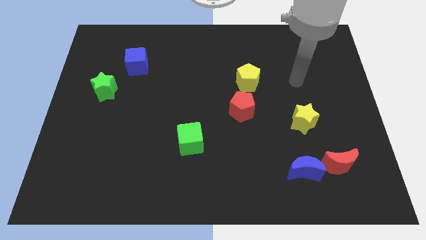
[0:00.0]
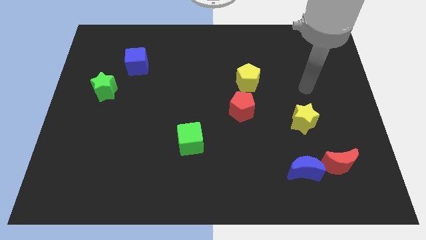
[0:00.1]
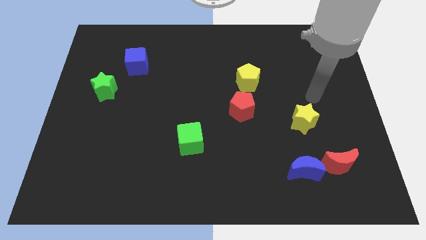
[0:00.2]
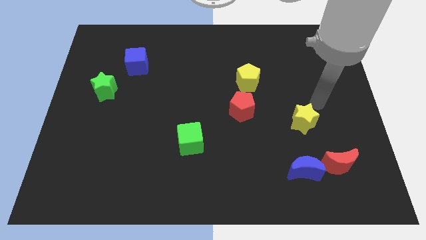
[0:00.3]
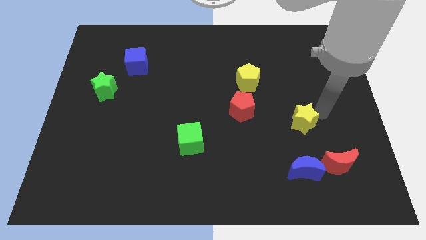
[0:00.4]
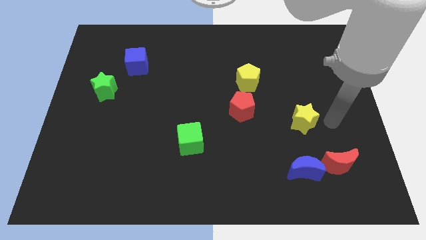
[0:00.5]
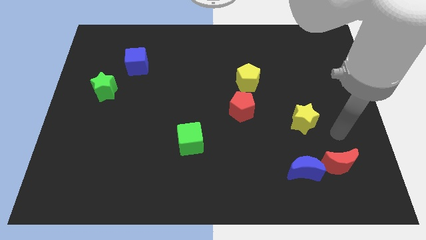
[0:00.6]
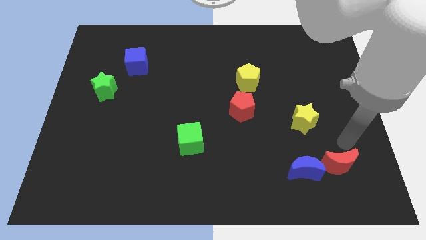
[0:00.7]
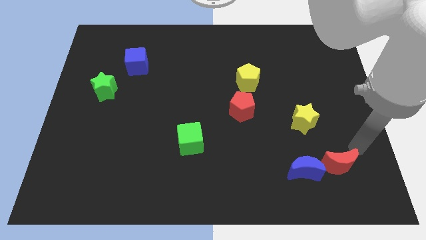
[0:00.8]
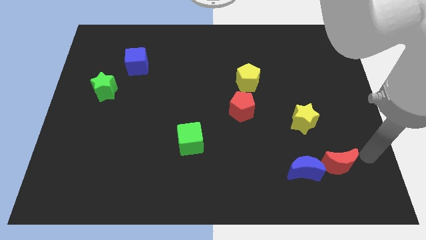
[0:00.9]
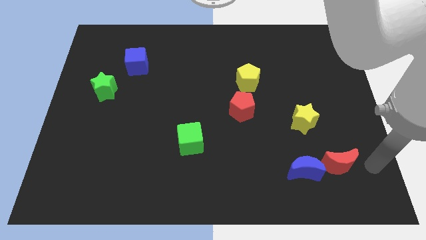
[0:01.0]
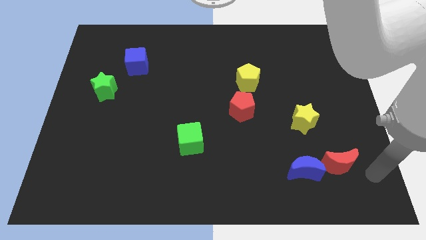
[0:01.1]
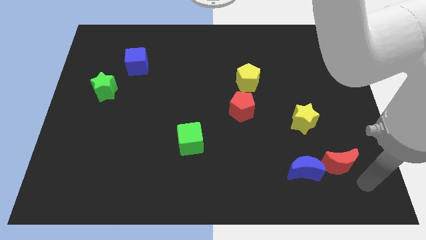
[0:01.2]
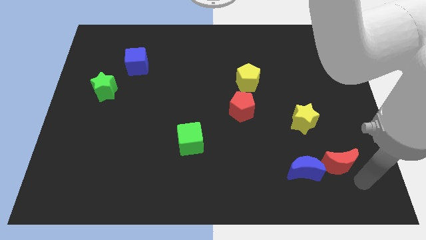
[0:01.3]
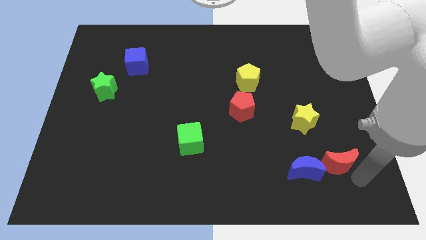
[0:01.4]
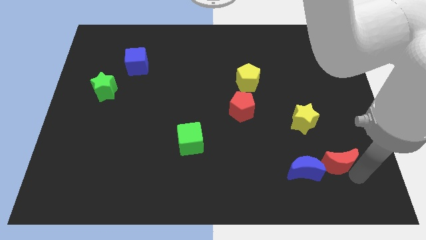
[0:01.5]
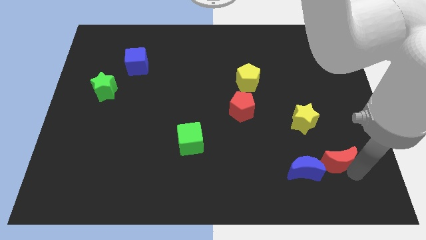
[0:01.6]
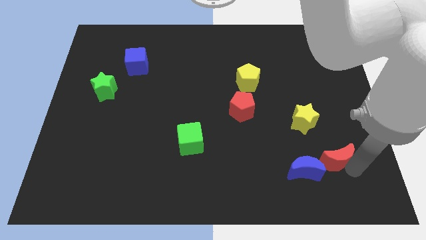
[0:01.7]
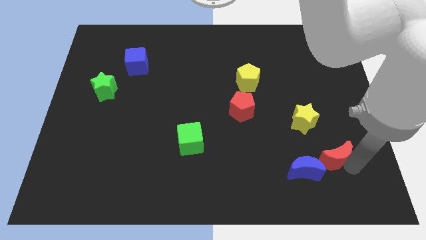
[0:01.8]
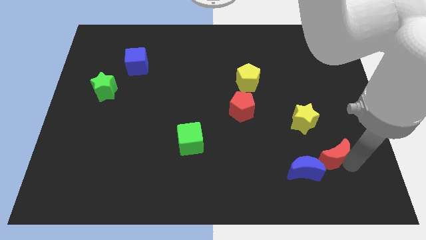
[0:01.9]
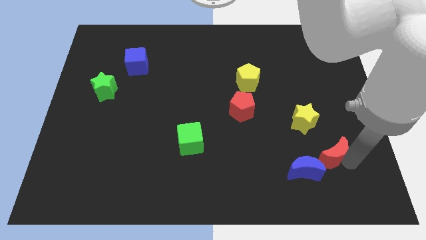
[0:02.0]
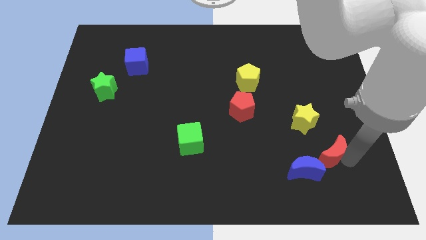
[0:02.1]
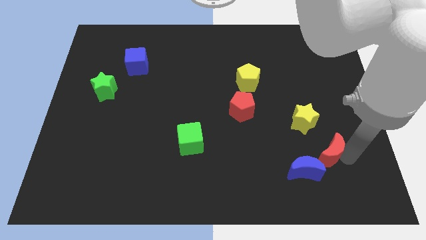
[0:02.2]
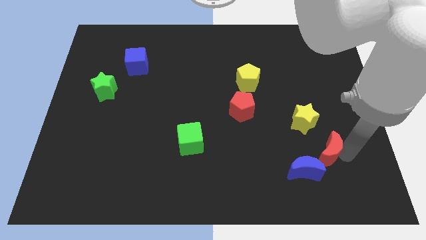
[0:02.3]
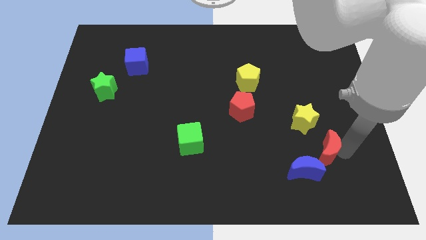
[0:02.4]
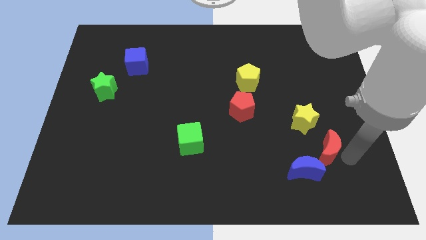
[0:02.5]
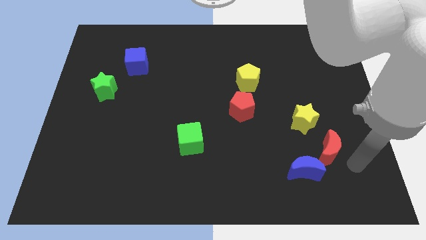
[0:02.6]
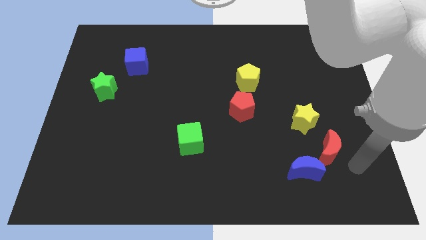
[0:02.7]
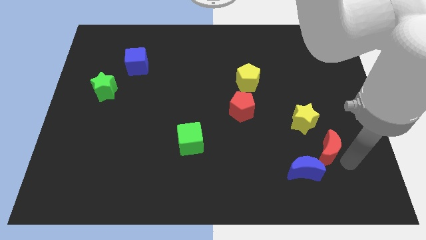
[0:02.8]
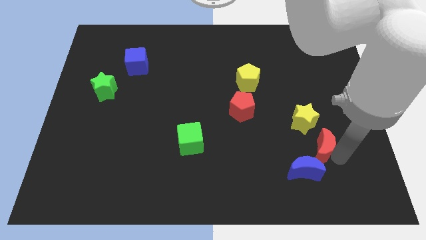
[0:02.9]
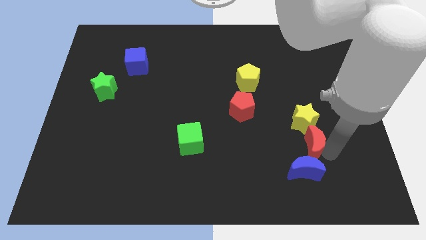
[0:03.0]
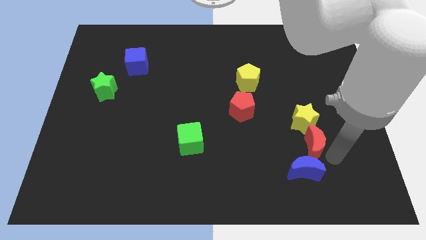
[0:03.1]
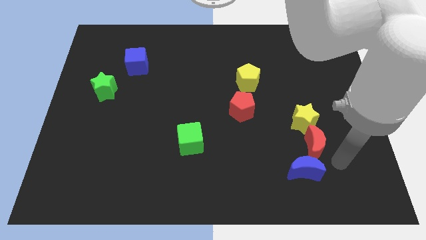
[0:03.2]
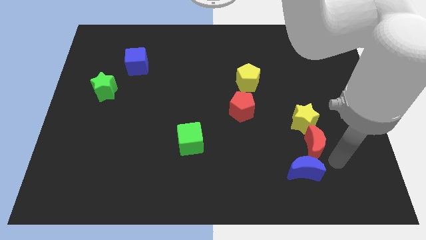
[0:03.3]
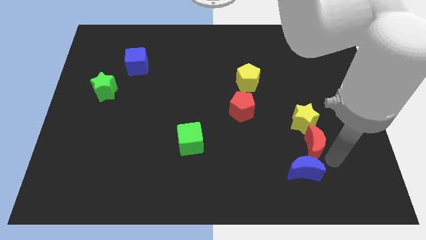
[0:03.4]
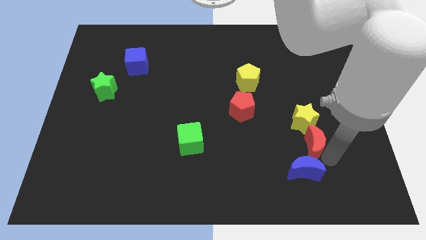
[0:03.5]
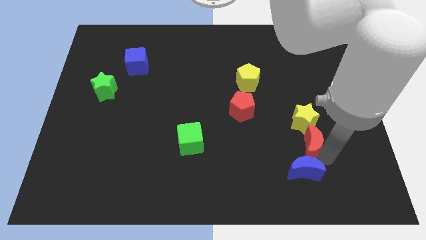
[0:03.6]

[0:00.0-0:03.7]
move the red moon diagonally up and left a little

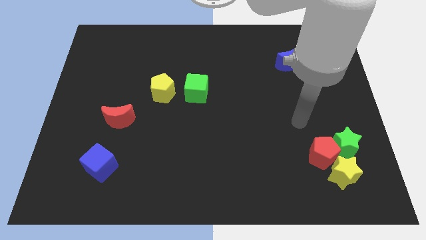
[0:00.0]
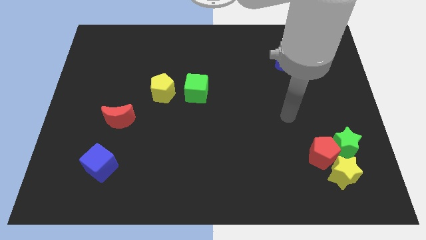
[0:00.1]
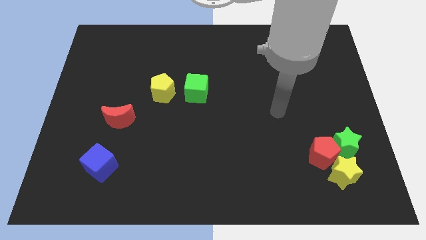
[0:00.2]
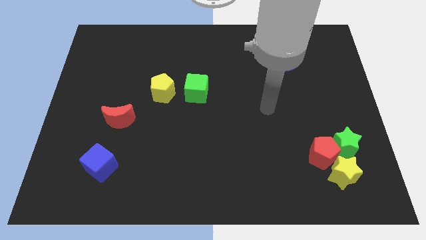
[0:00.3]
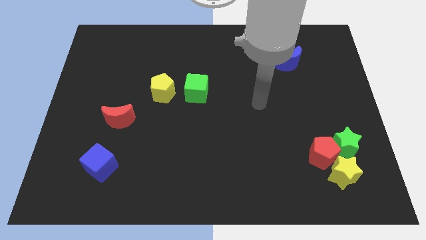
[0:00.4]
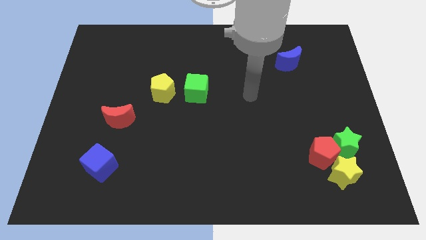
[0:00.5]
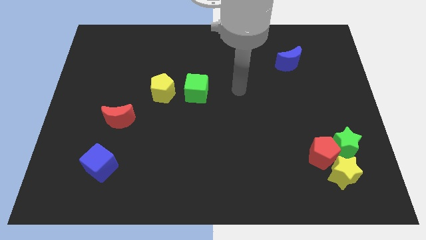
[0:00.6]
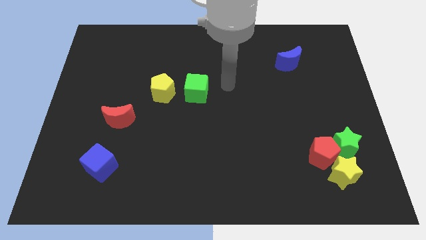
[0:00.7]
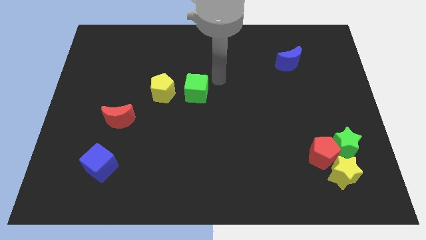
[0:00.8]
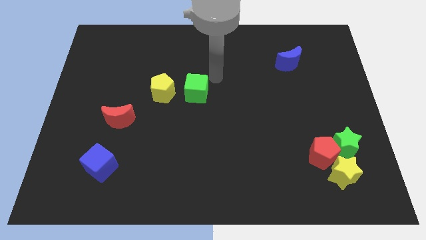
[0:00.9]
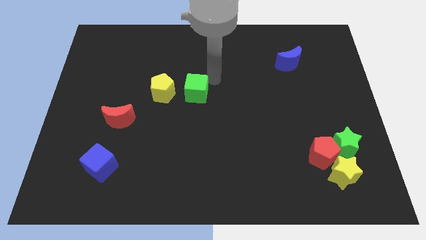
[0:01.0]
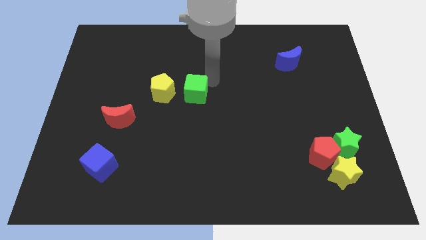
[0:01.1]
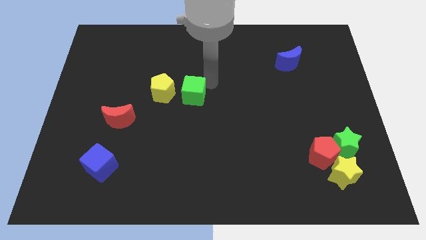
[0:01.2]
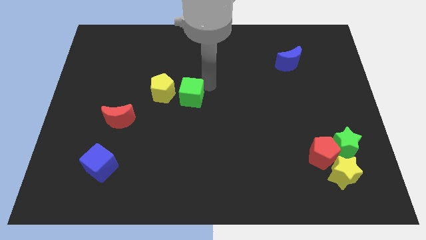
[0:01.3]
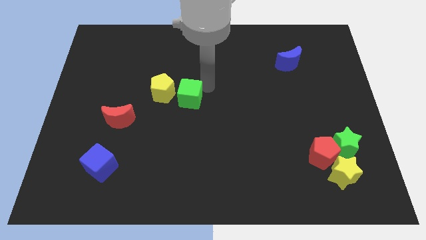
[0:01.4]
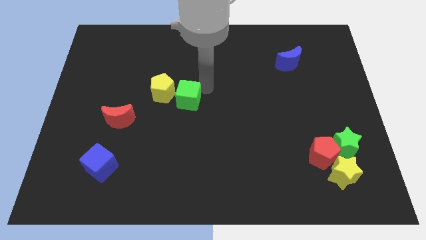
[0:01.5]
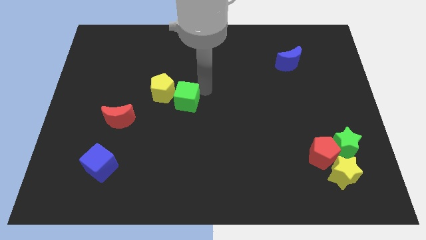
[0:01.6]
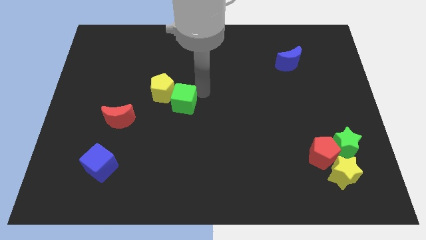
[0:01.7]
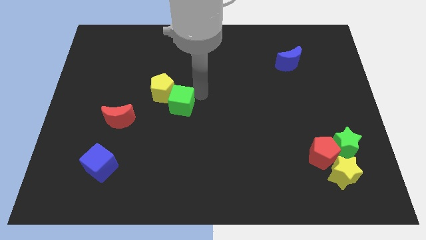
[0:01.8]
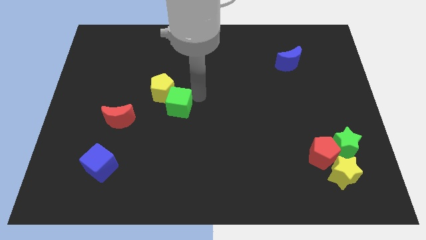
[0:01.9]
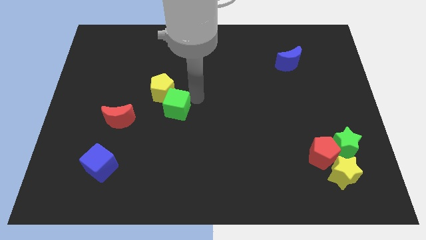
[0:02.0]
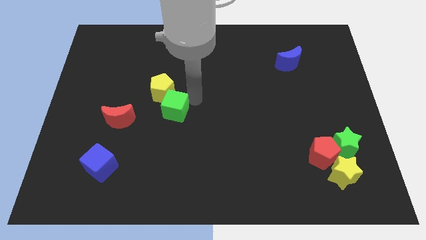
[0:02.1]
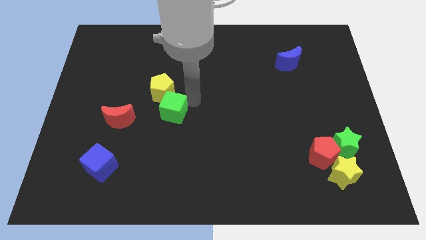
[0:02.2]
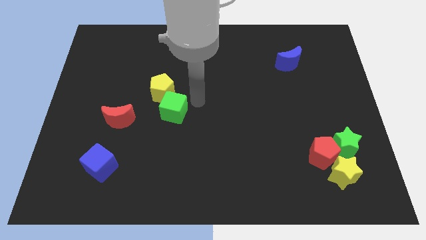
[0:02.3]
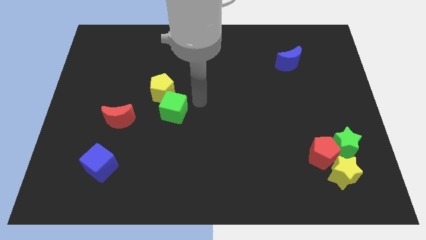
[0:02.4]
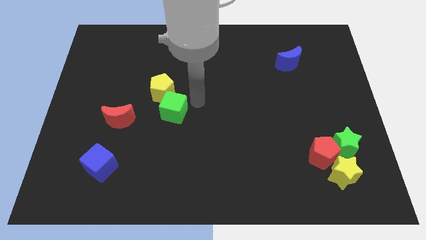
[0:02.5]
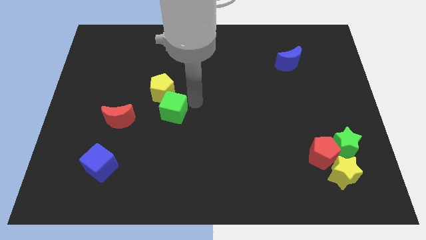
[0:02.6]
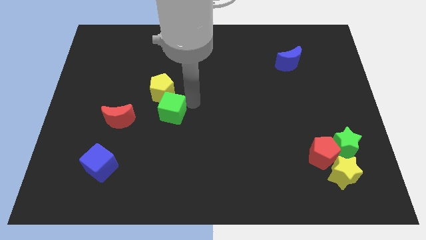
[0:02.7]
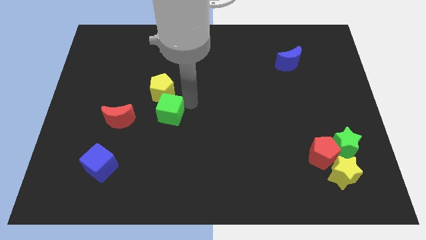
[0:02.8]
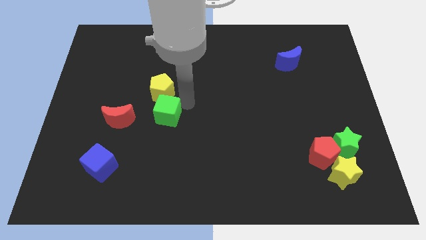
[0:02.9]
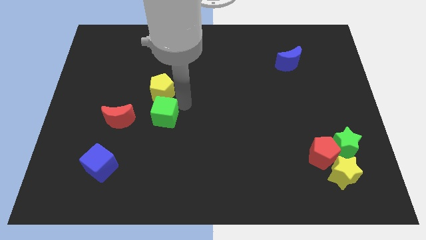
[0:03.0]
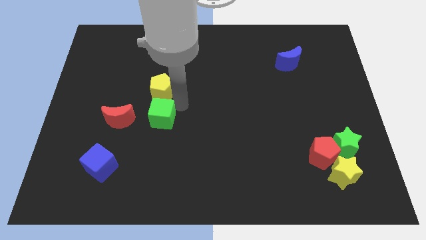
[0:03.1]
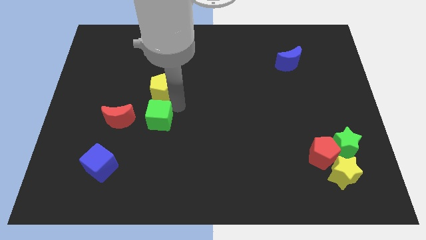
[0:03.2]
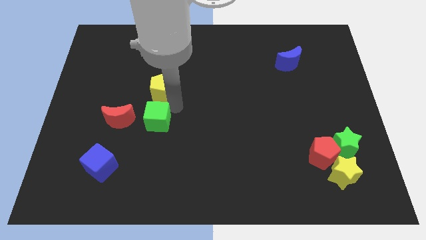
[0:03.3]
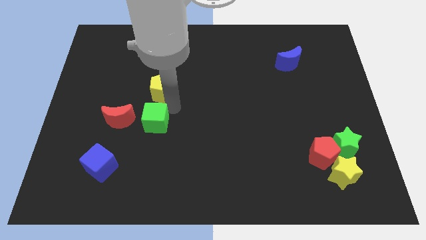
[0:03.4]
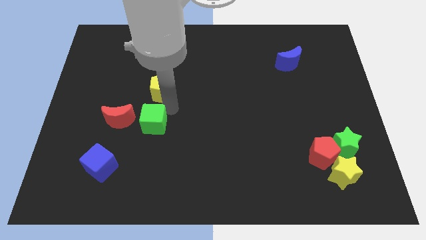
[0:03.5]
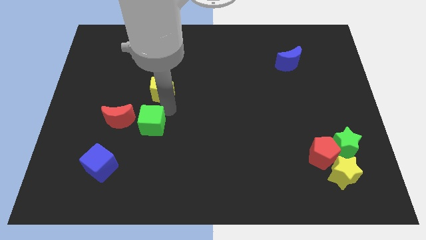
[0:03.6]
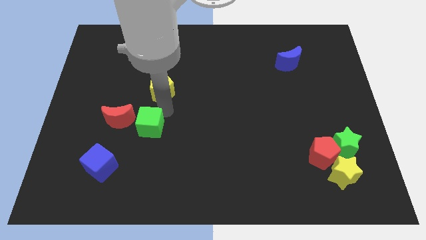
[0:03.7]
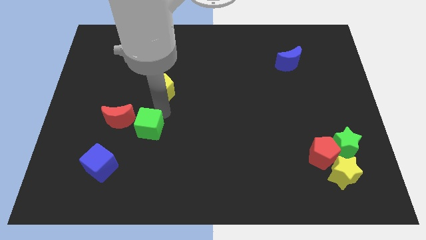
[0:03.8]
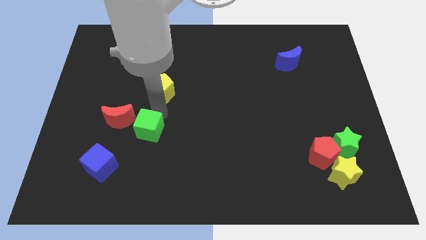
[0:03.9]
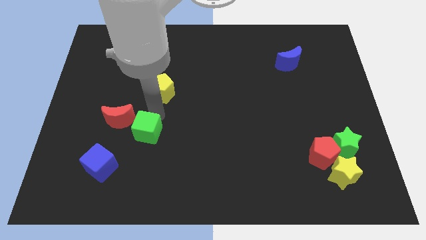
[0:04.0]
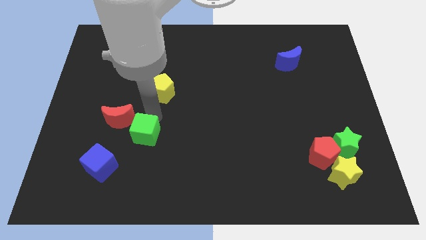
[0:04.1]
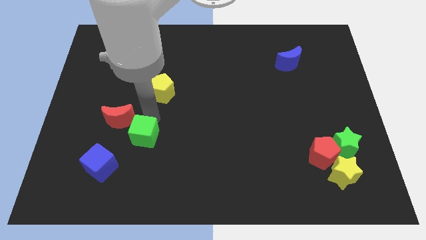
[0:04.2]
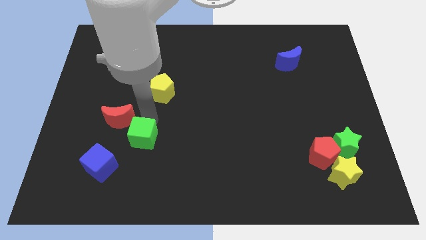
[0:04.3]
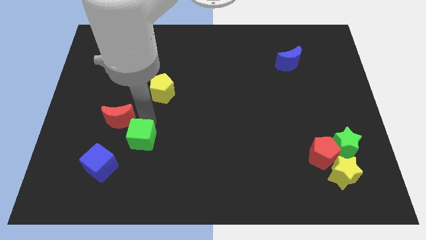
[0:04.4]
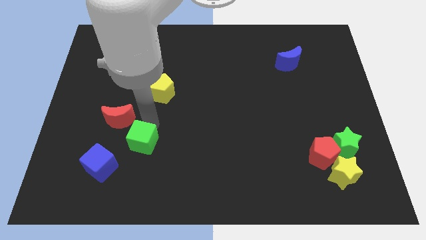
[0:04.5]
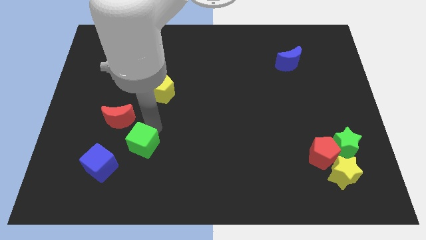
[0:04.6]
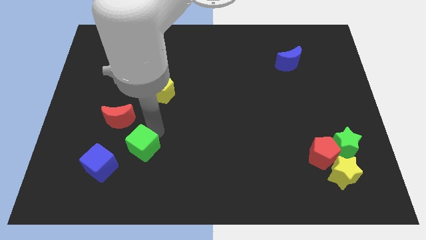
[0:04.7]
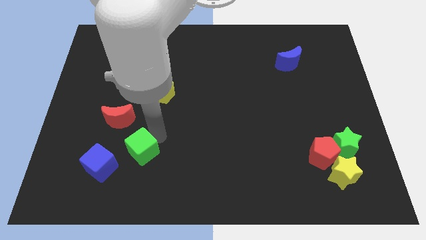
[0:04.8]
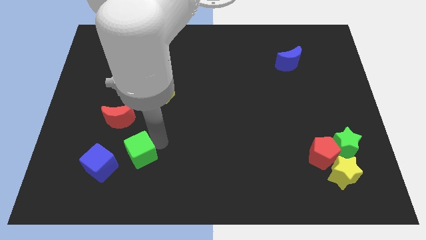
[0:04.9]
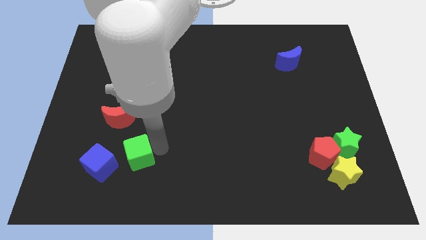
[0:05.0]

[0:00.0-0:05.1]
slide the green cube diagonally down and to the left
